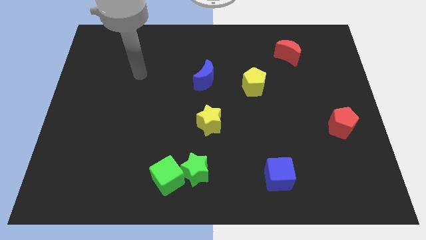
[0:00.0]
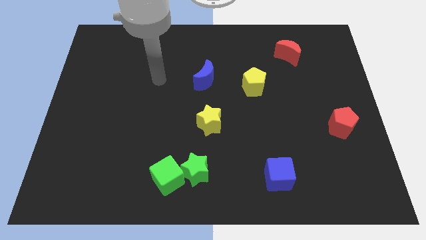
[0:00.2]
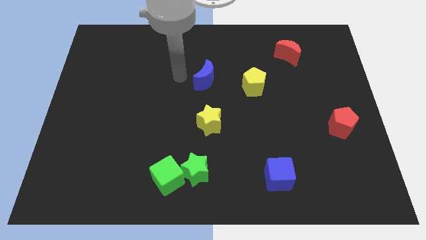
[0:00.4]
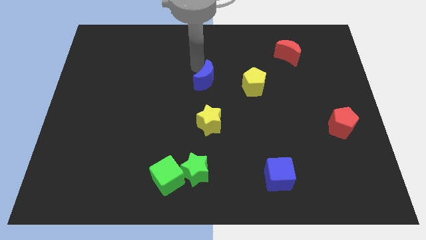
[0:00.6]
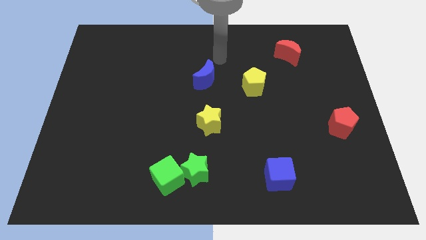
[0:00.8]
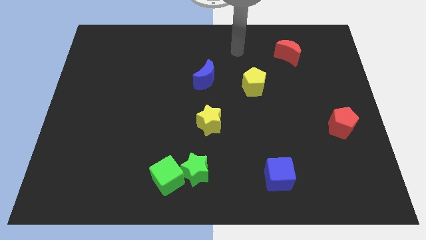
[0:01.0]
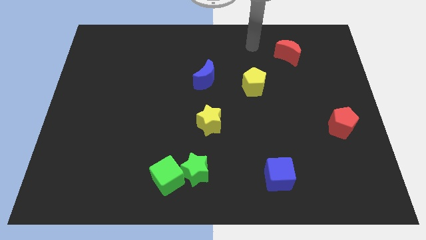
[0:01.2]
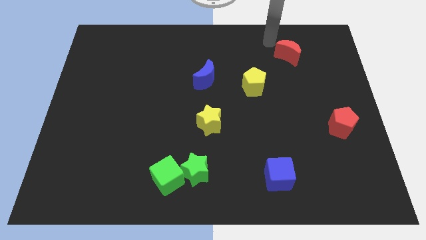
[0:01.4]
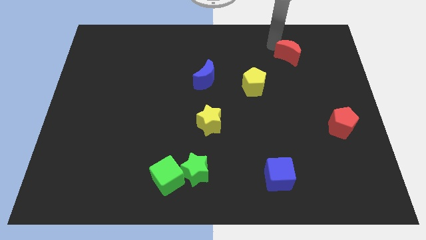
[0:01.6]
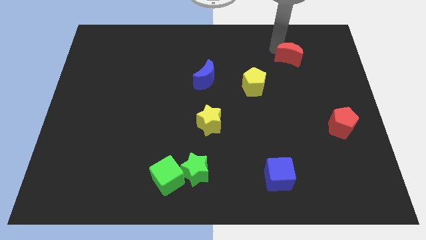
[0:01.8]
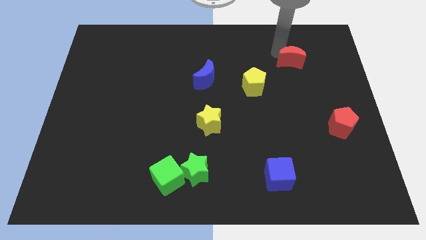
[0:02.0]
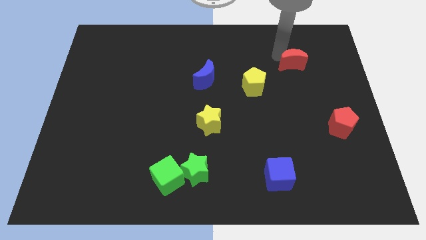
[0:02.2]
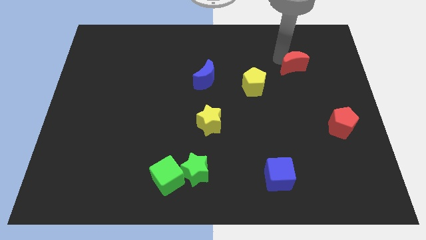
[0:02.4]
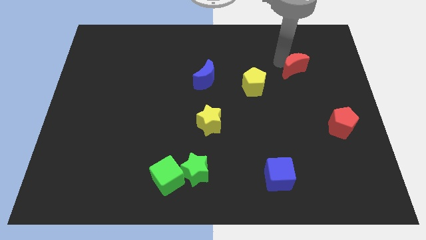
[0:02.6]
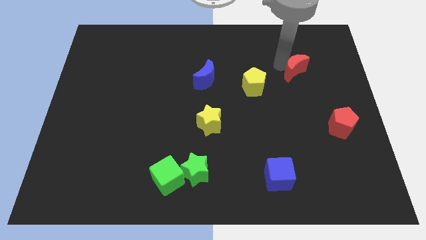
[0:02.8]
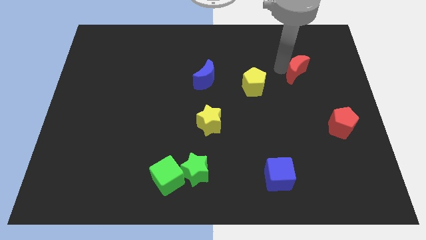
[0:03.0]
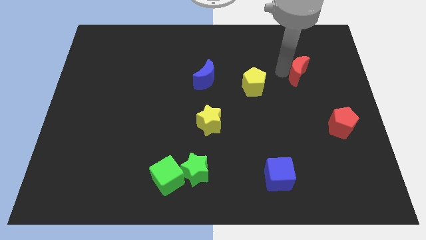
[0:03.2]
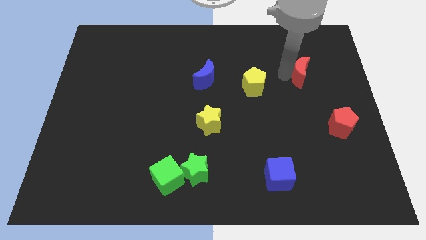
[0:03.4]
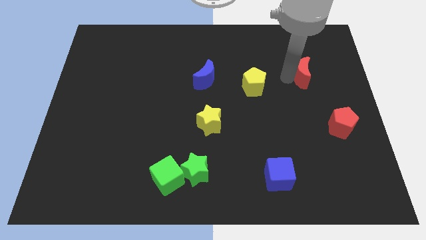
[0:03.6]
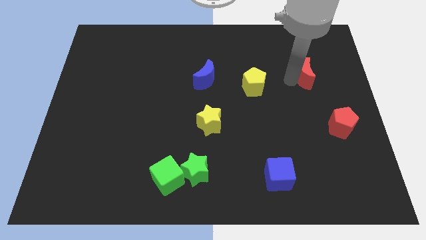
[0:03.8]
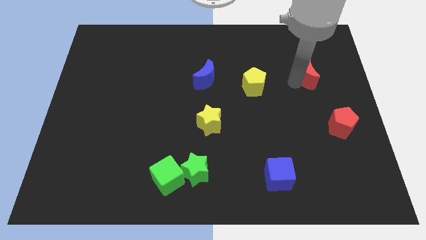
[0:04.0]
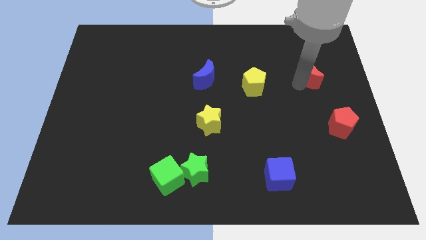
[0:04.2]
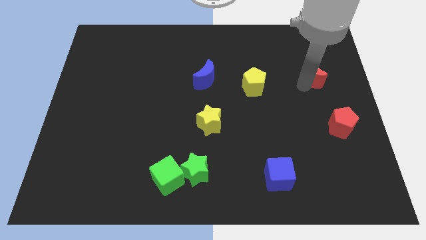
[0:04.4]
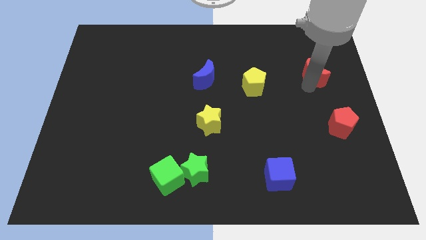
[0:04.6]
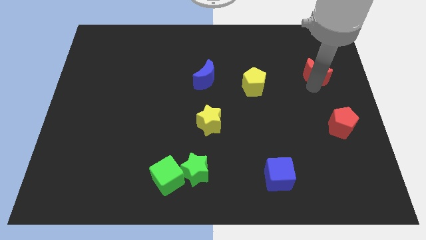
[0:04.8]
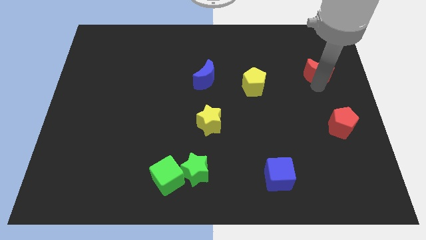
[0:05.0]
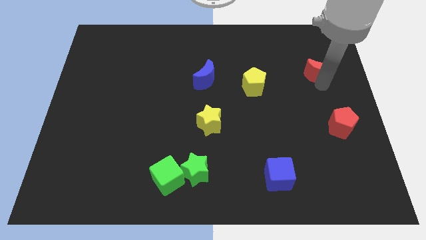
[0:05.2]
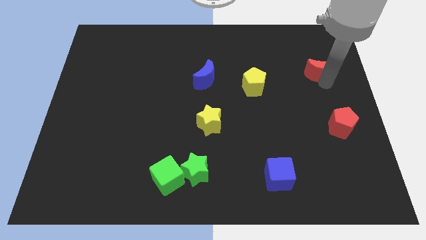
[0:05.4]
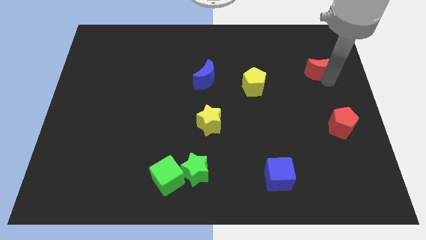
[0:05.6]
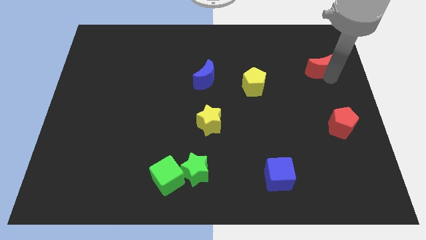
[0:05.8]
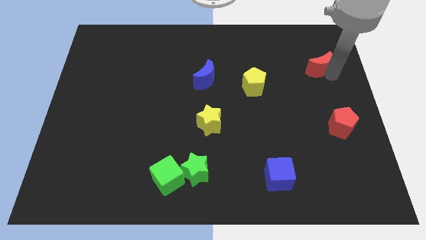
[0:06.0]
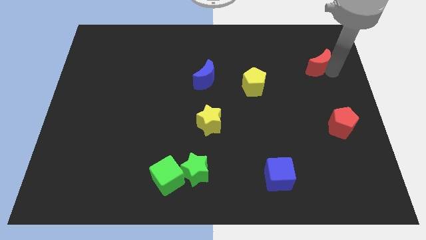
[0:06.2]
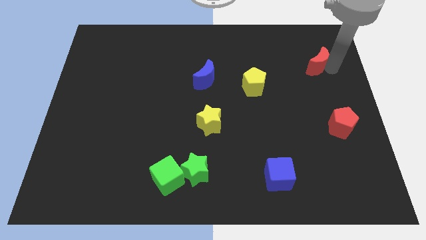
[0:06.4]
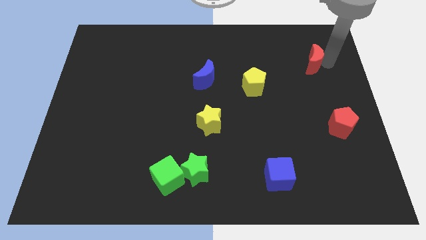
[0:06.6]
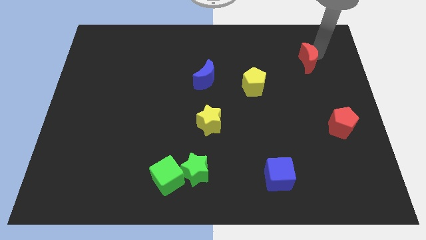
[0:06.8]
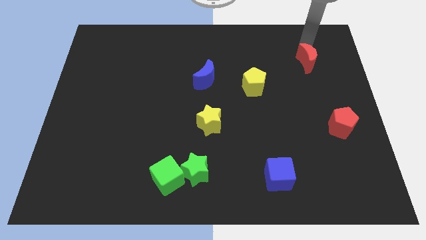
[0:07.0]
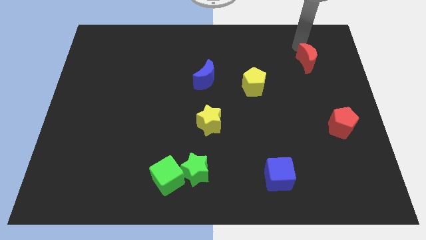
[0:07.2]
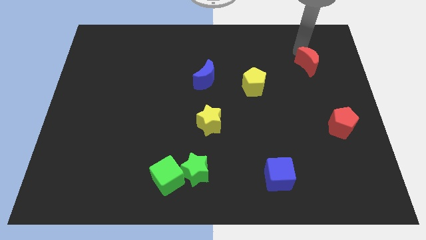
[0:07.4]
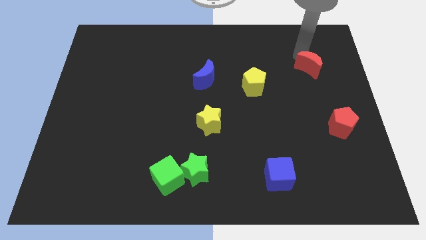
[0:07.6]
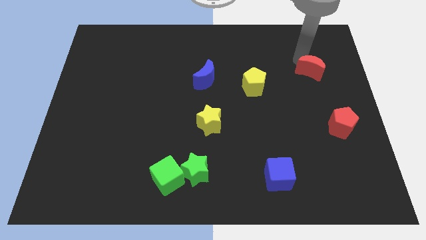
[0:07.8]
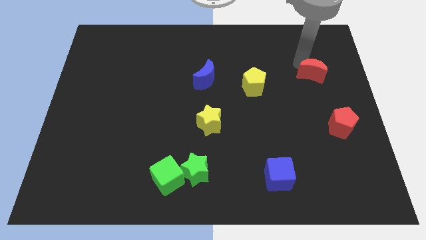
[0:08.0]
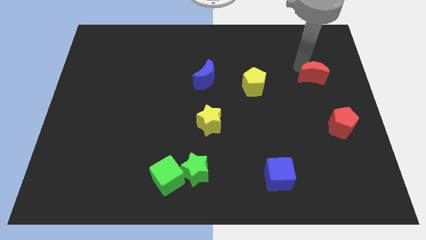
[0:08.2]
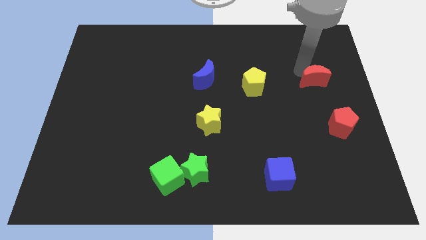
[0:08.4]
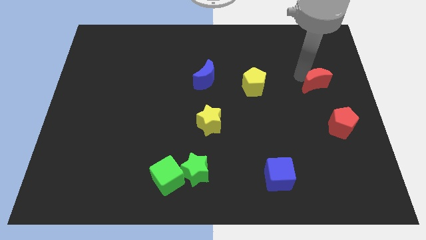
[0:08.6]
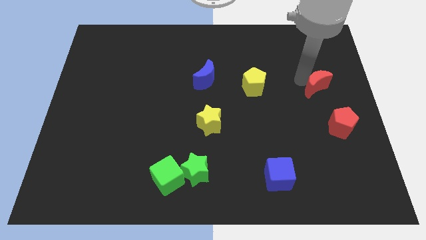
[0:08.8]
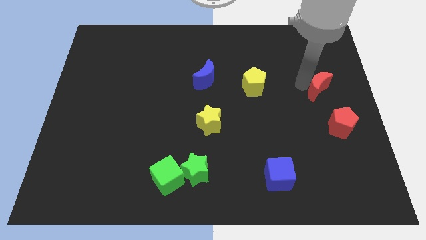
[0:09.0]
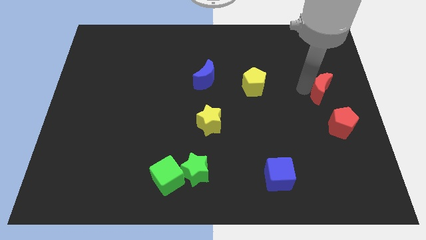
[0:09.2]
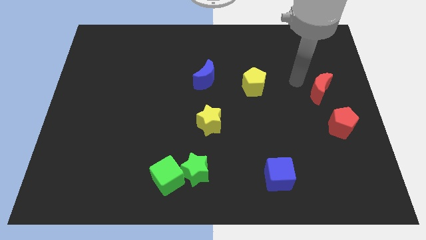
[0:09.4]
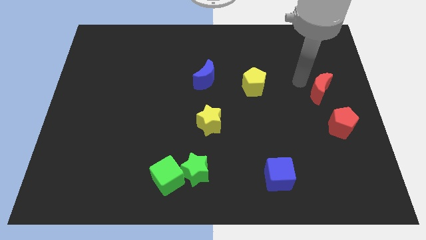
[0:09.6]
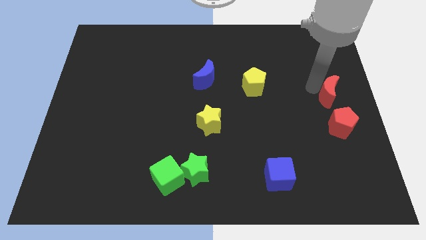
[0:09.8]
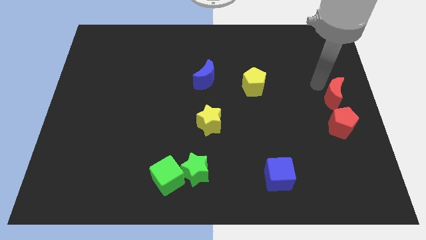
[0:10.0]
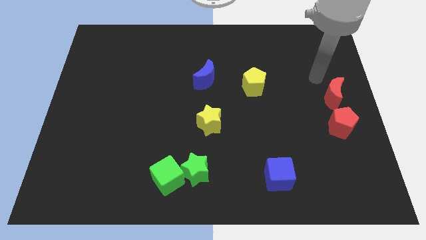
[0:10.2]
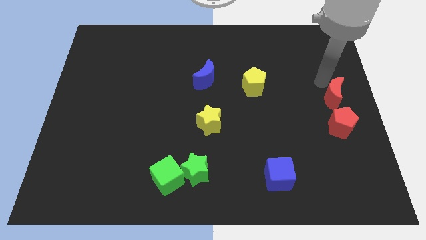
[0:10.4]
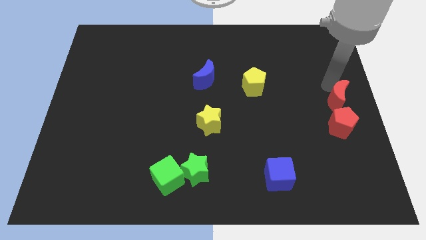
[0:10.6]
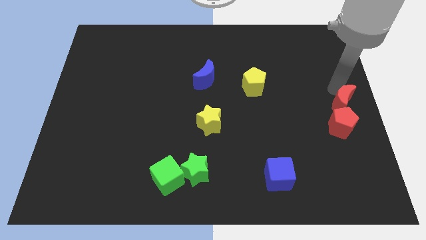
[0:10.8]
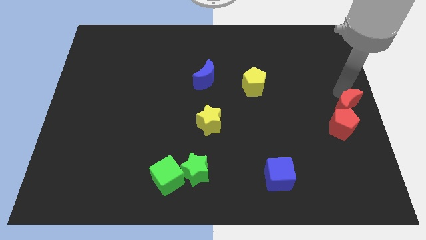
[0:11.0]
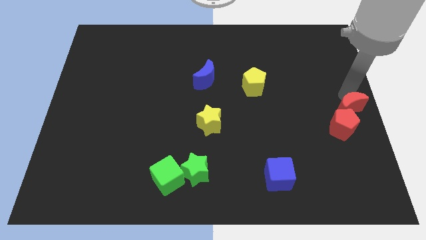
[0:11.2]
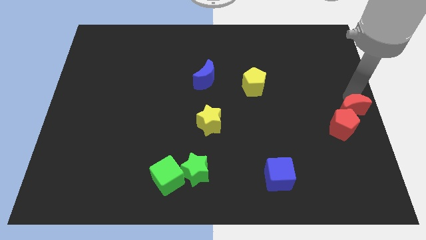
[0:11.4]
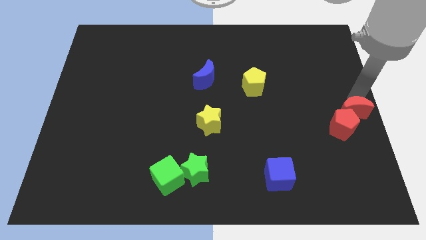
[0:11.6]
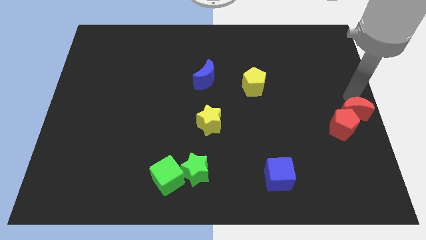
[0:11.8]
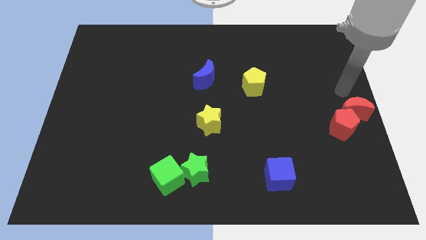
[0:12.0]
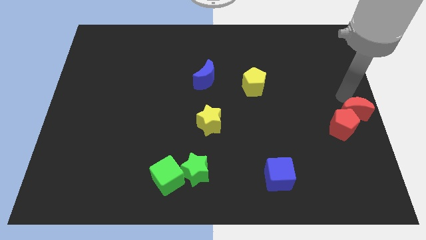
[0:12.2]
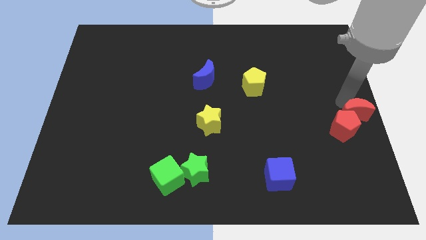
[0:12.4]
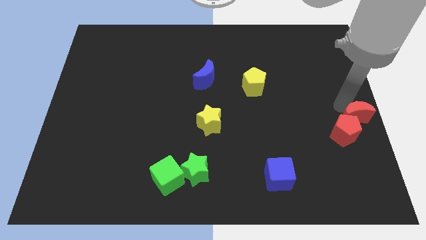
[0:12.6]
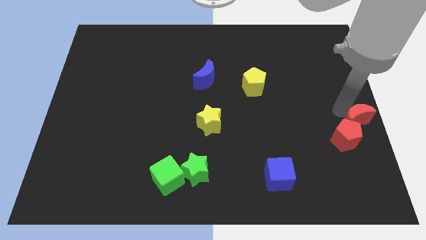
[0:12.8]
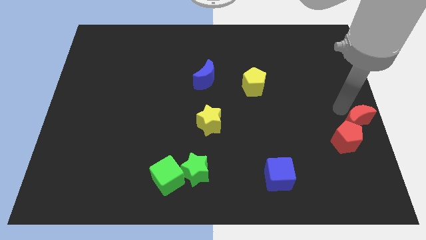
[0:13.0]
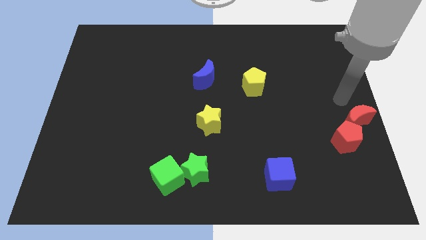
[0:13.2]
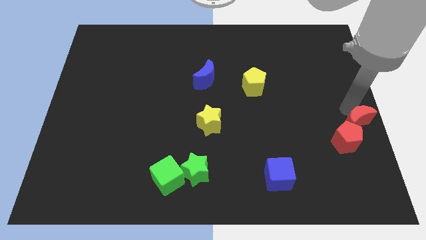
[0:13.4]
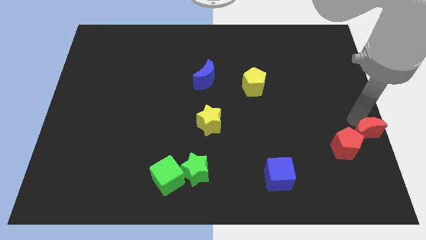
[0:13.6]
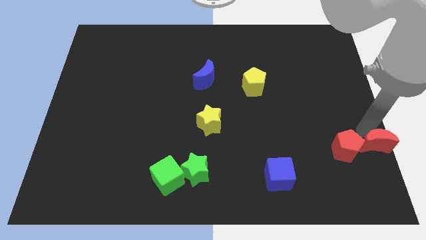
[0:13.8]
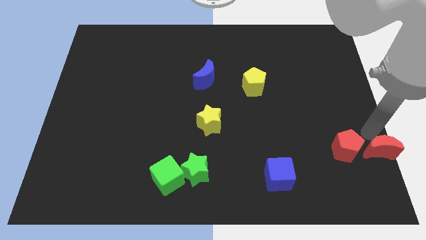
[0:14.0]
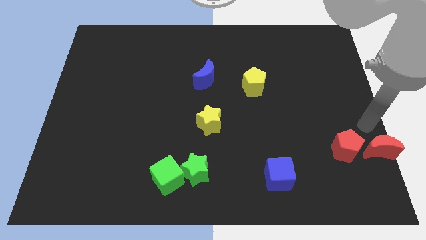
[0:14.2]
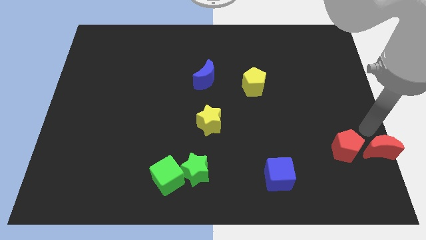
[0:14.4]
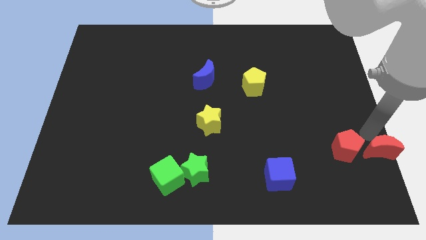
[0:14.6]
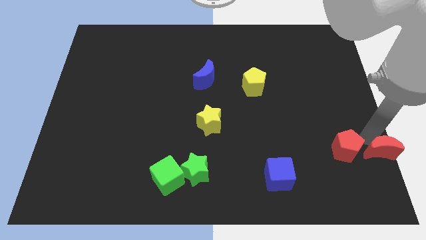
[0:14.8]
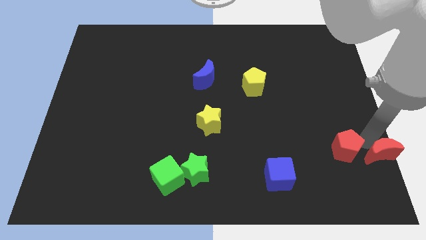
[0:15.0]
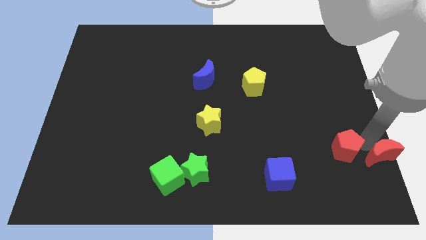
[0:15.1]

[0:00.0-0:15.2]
put the red moon to the bottom right corner
